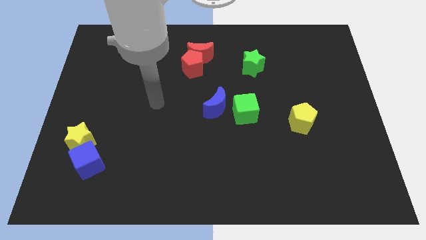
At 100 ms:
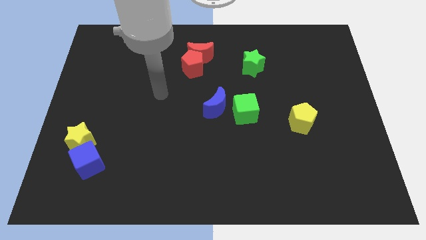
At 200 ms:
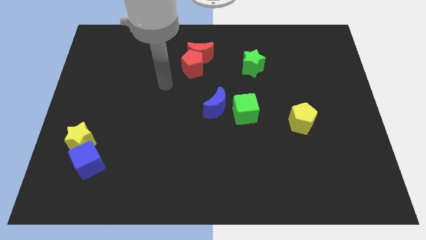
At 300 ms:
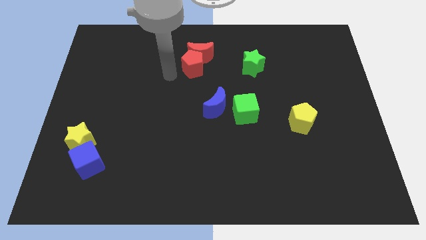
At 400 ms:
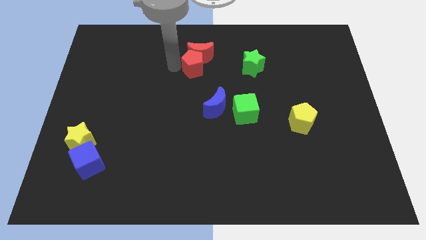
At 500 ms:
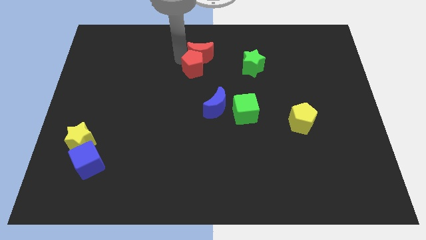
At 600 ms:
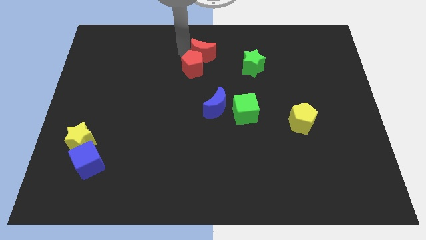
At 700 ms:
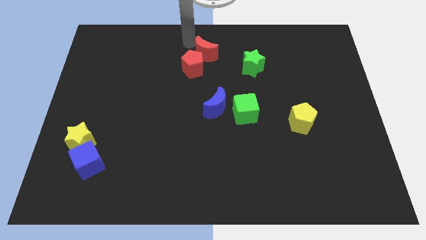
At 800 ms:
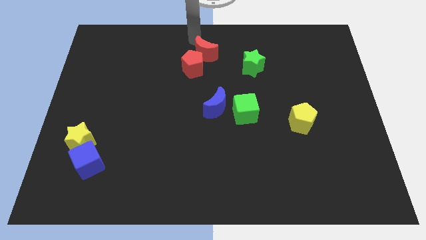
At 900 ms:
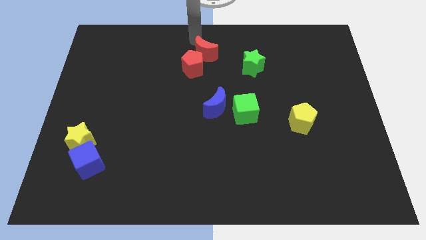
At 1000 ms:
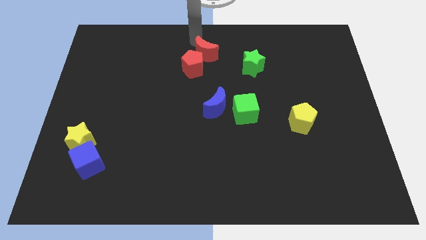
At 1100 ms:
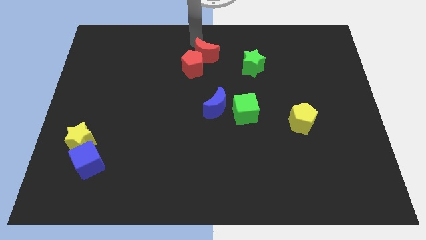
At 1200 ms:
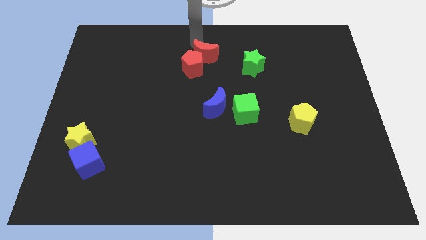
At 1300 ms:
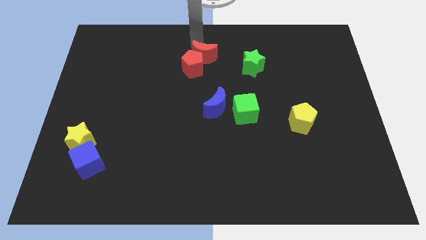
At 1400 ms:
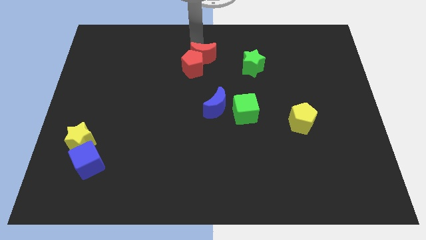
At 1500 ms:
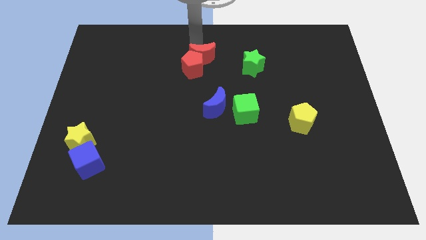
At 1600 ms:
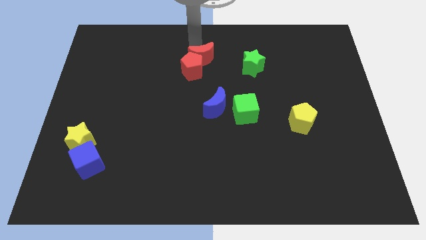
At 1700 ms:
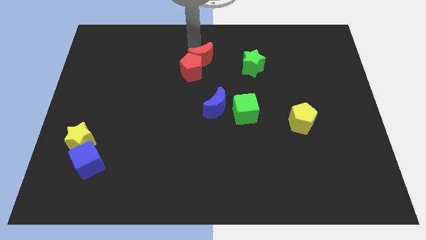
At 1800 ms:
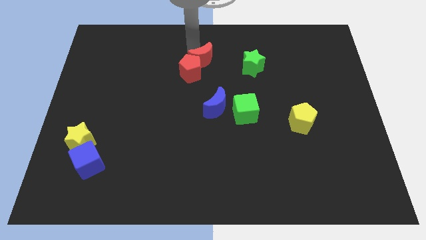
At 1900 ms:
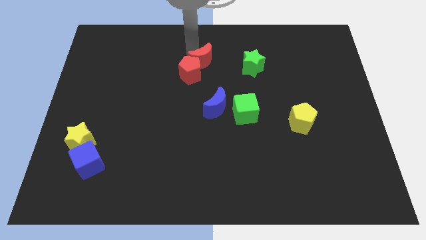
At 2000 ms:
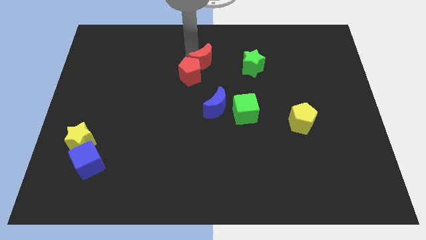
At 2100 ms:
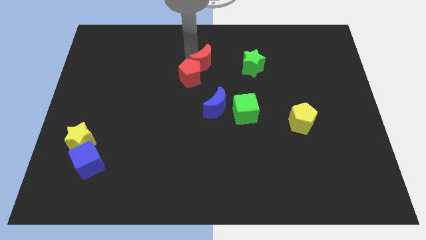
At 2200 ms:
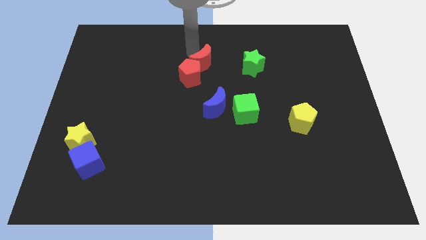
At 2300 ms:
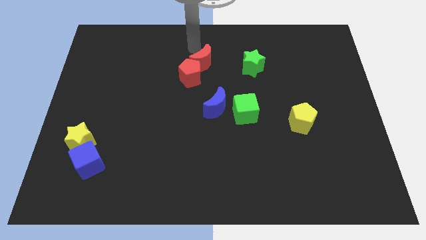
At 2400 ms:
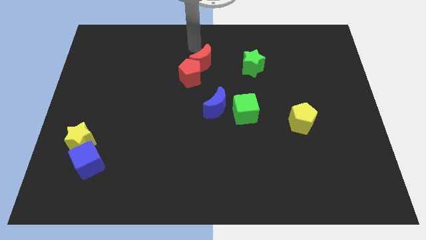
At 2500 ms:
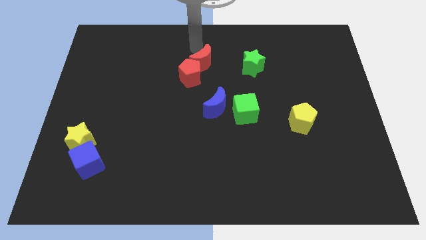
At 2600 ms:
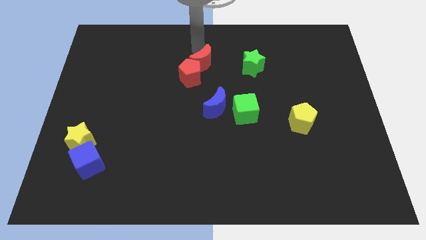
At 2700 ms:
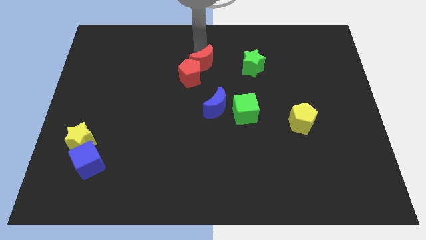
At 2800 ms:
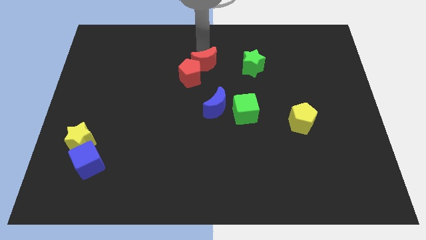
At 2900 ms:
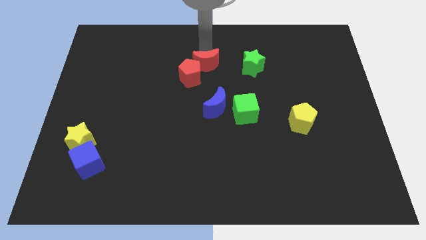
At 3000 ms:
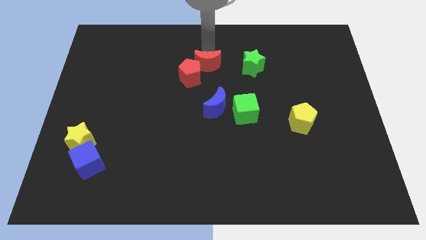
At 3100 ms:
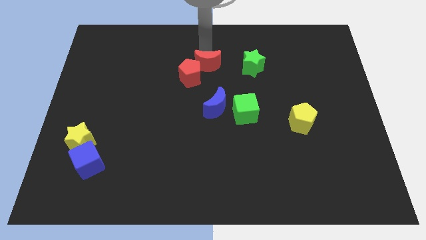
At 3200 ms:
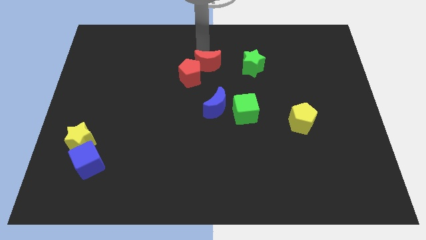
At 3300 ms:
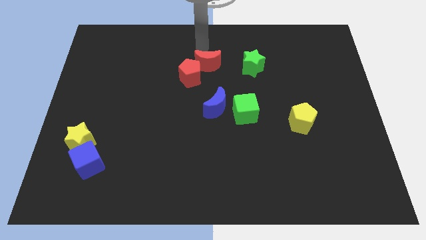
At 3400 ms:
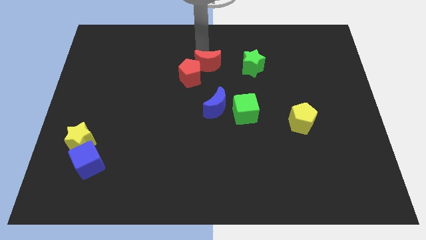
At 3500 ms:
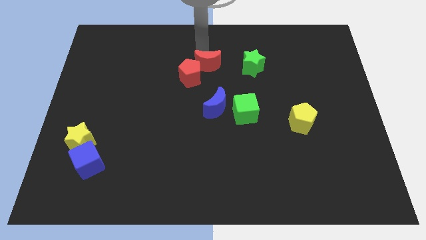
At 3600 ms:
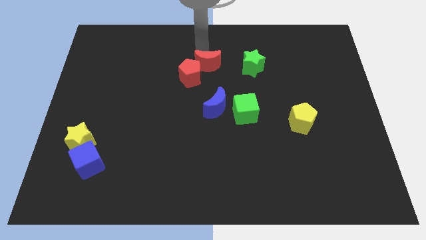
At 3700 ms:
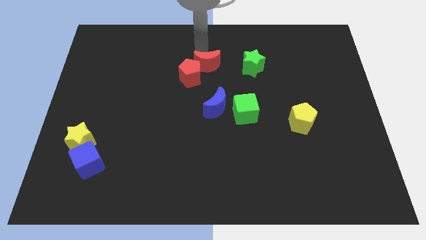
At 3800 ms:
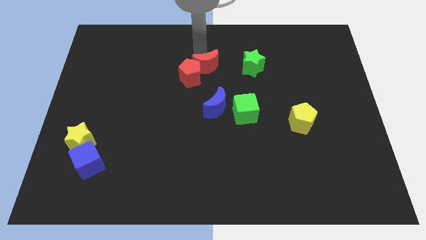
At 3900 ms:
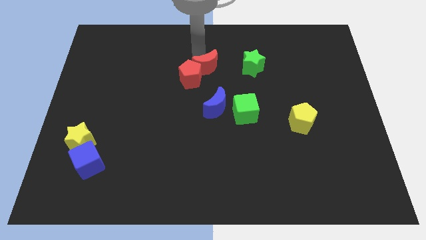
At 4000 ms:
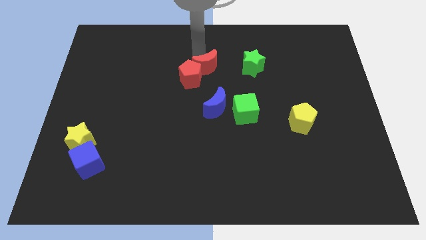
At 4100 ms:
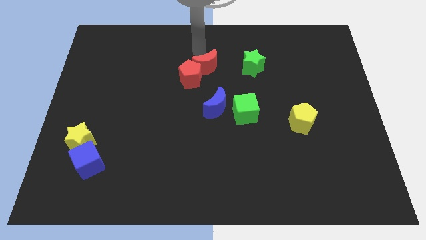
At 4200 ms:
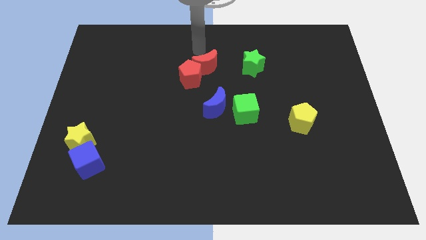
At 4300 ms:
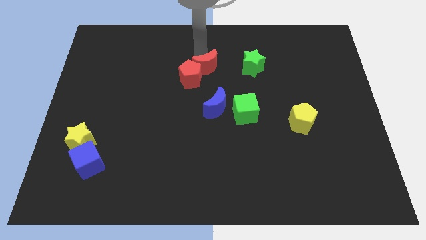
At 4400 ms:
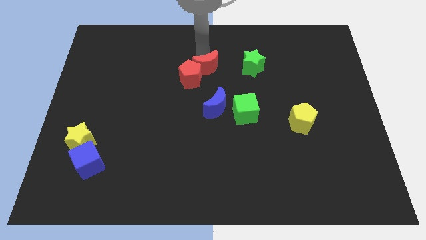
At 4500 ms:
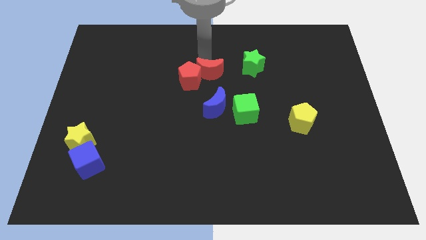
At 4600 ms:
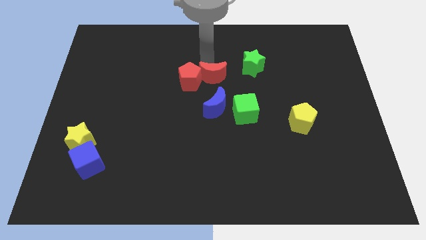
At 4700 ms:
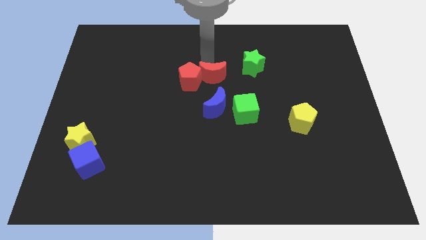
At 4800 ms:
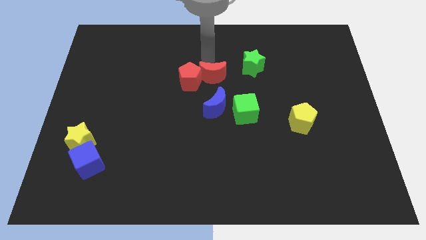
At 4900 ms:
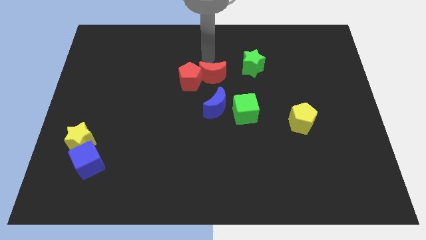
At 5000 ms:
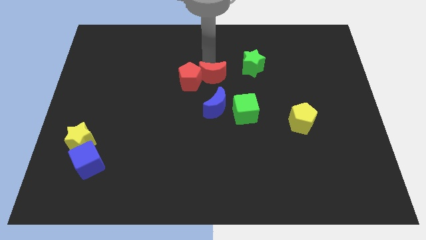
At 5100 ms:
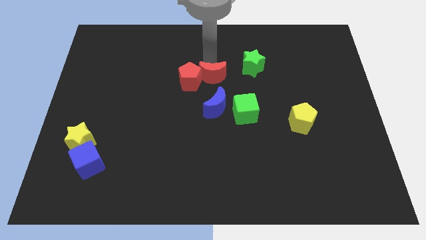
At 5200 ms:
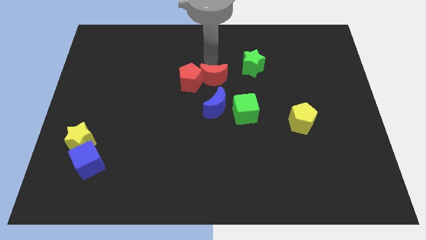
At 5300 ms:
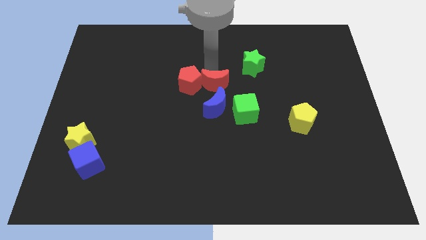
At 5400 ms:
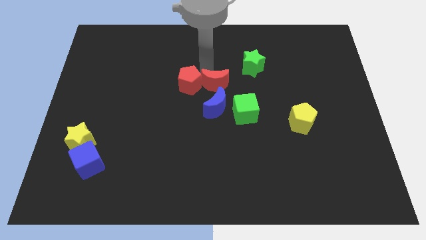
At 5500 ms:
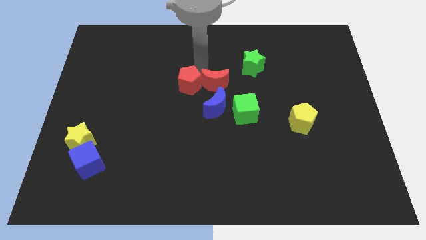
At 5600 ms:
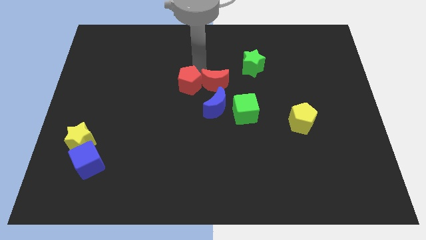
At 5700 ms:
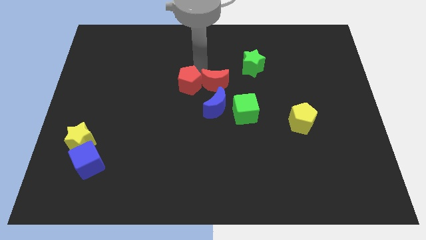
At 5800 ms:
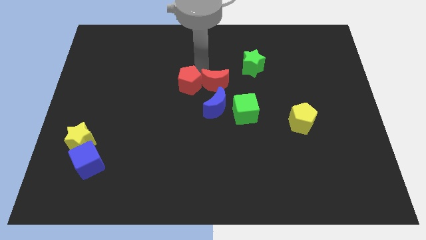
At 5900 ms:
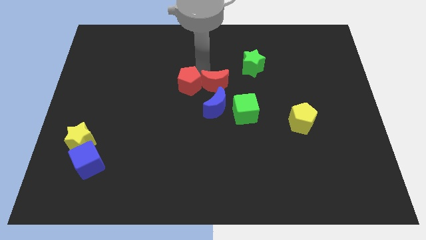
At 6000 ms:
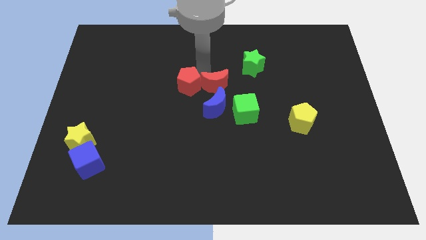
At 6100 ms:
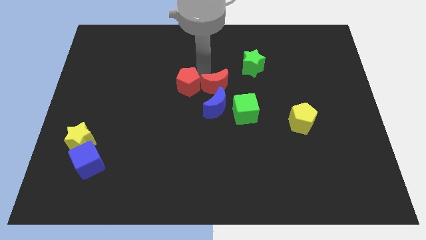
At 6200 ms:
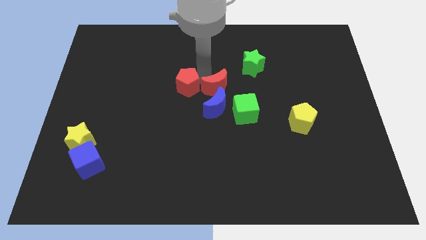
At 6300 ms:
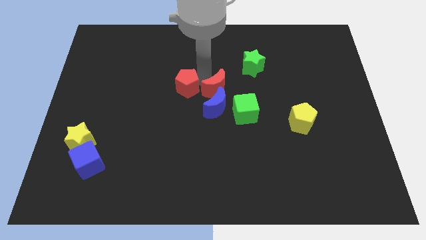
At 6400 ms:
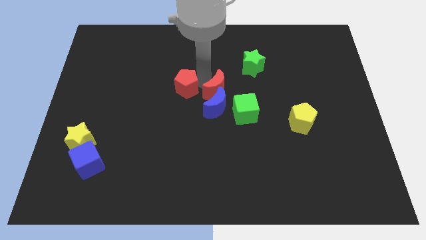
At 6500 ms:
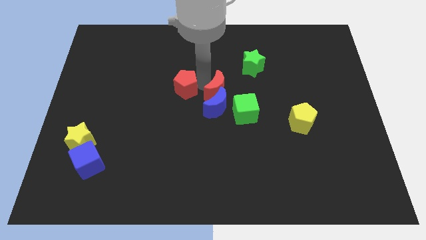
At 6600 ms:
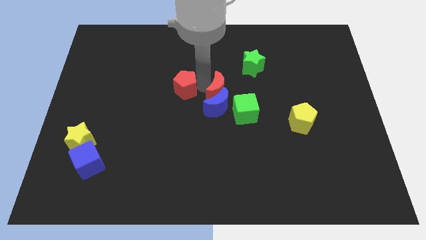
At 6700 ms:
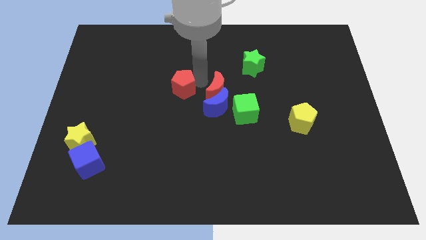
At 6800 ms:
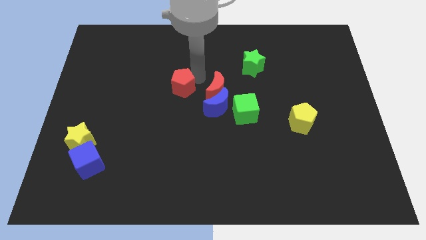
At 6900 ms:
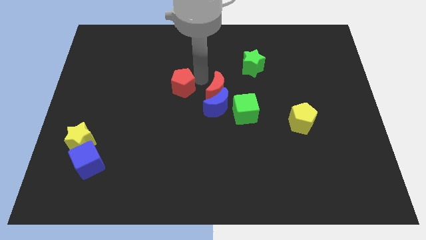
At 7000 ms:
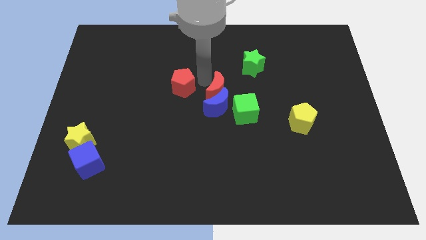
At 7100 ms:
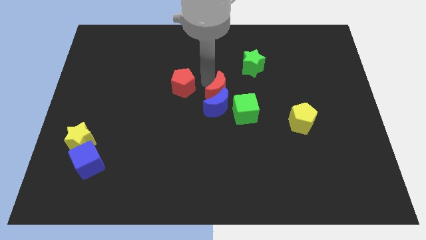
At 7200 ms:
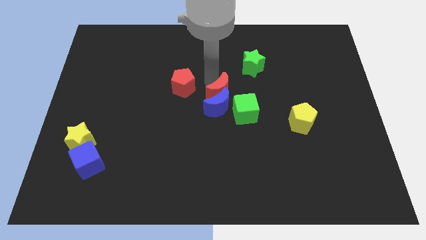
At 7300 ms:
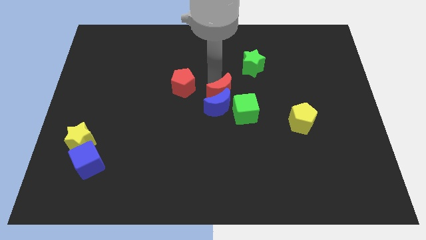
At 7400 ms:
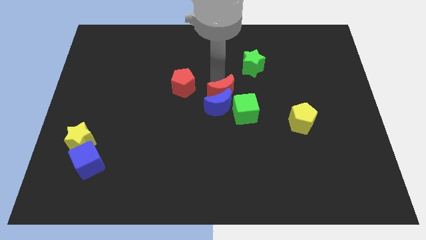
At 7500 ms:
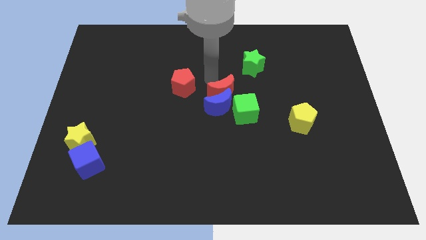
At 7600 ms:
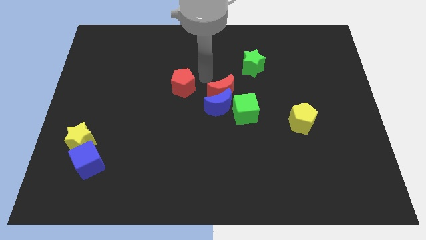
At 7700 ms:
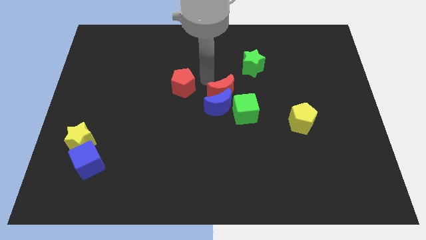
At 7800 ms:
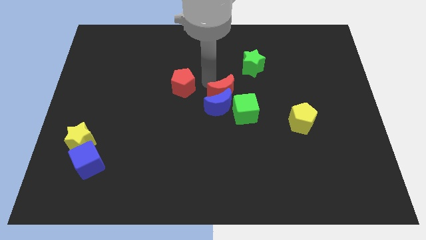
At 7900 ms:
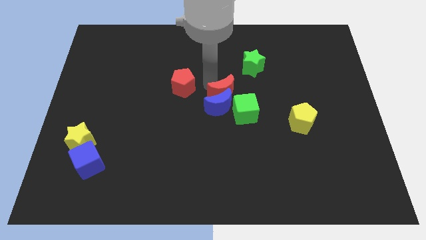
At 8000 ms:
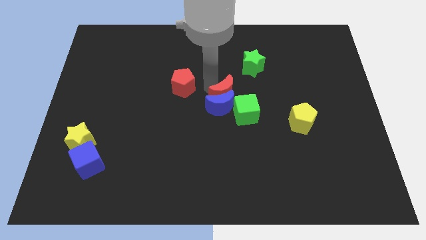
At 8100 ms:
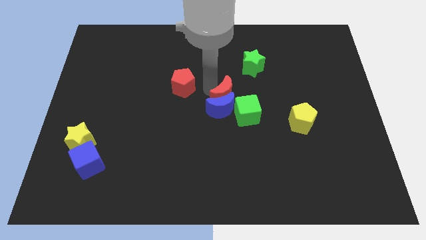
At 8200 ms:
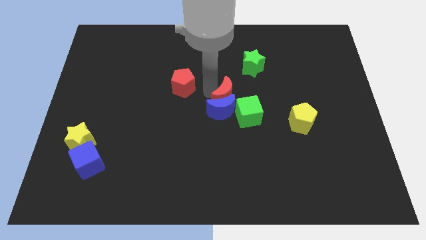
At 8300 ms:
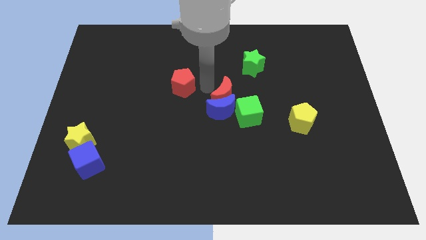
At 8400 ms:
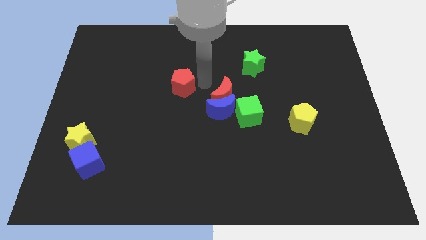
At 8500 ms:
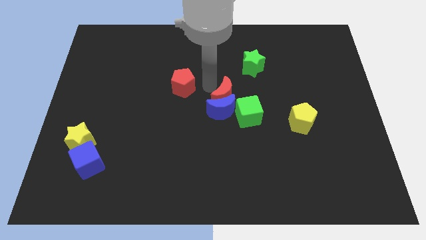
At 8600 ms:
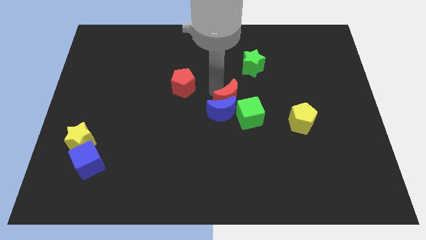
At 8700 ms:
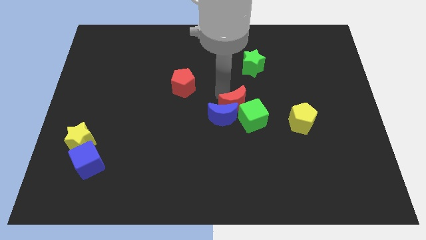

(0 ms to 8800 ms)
put the red moon close to the green cube
